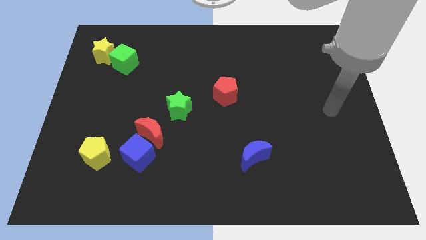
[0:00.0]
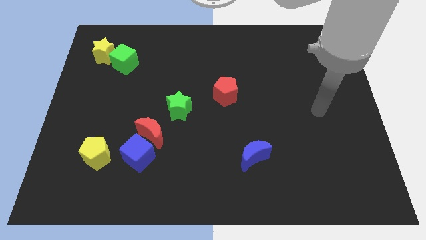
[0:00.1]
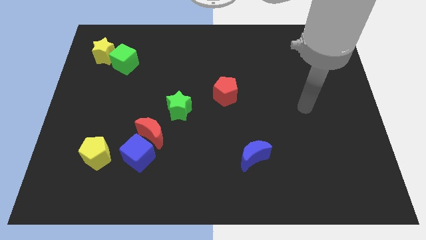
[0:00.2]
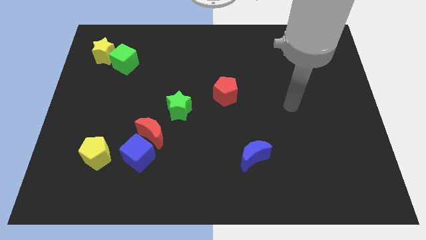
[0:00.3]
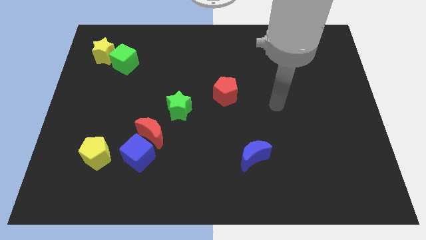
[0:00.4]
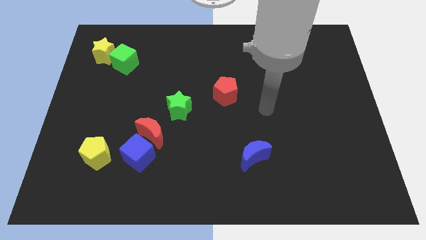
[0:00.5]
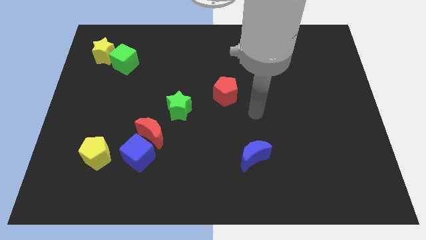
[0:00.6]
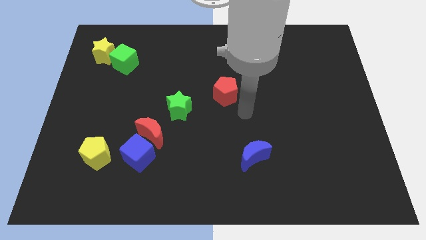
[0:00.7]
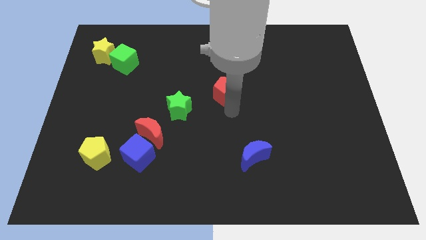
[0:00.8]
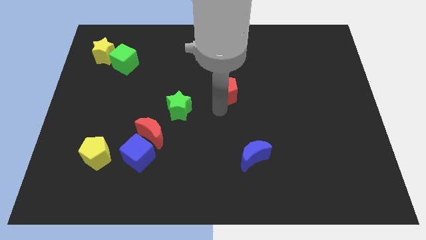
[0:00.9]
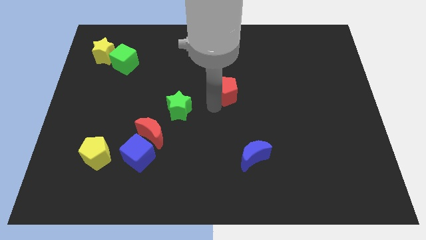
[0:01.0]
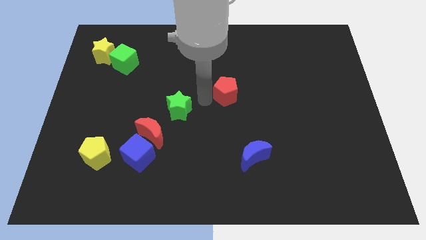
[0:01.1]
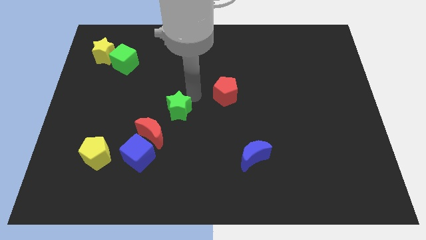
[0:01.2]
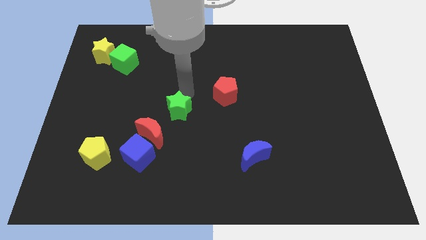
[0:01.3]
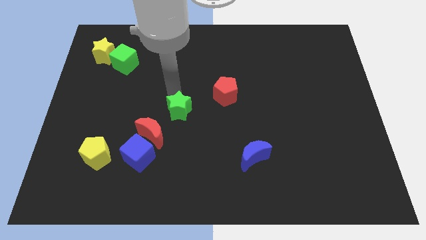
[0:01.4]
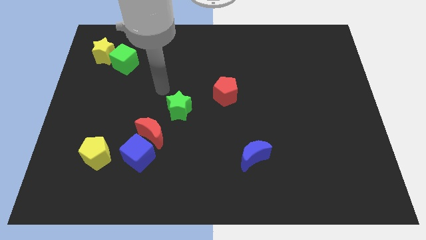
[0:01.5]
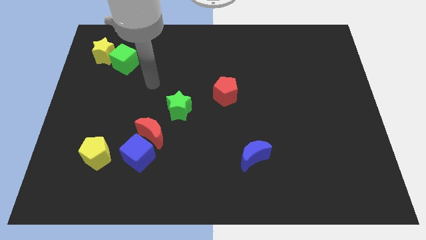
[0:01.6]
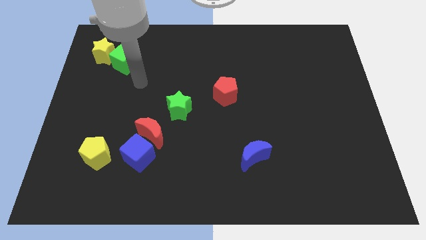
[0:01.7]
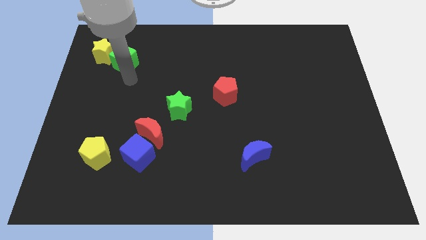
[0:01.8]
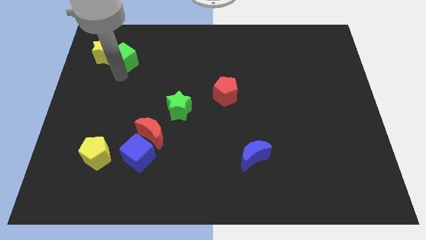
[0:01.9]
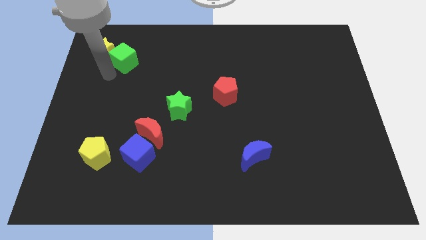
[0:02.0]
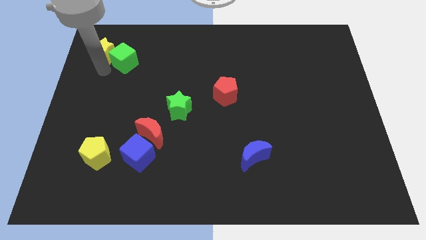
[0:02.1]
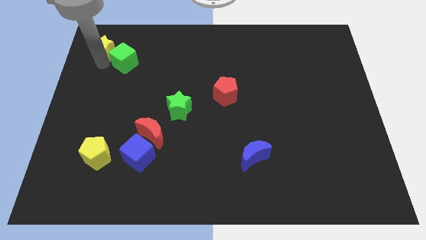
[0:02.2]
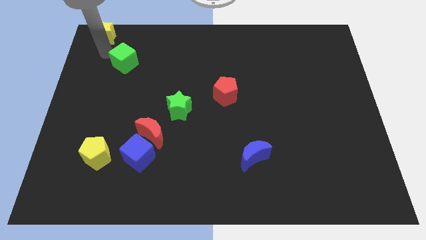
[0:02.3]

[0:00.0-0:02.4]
move the green cube away from the yellow star

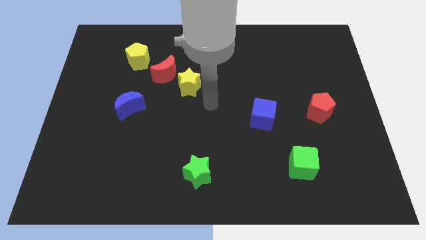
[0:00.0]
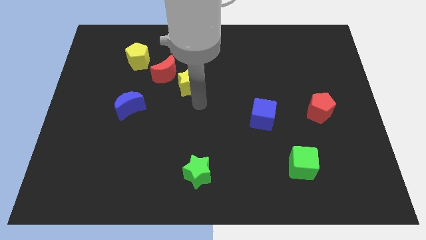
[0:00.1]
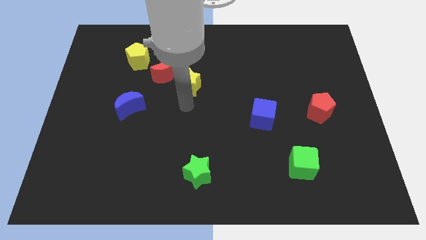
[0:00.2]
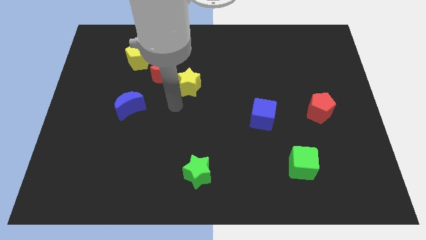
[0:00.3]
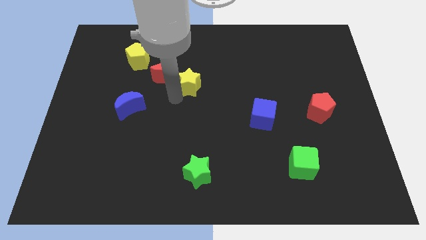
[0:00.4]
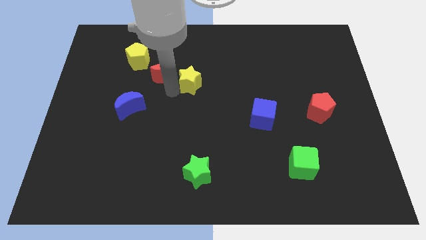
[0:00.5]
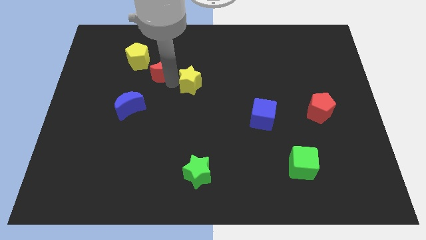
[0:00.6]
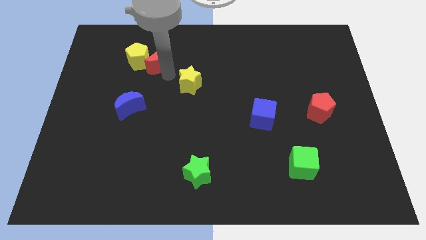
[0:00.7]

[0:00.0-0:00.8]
pull the yellow star apart from the red moon

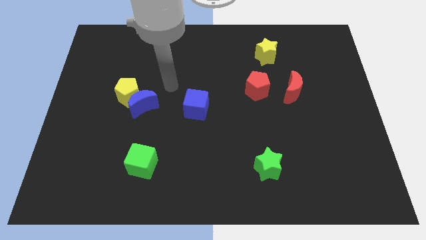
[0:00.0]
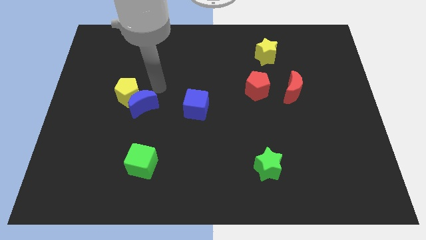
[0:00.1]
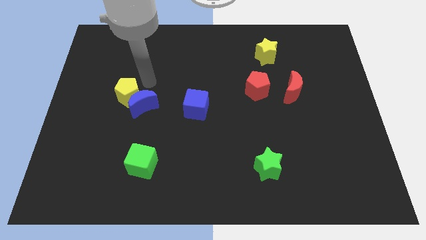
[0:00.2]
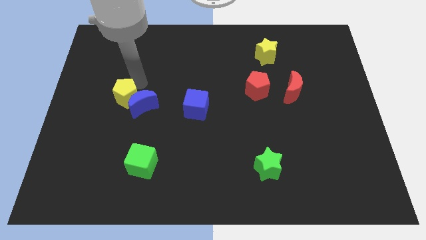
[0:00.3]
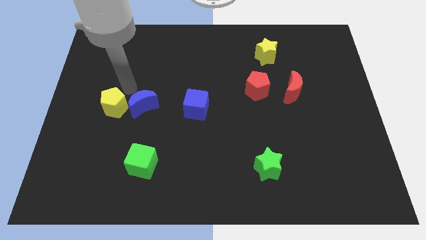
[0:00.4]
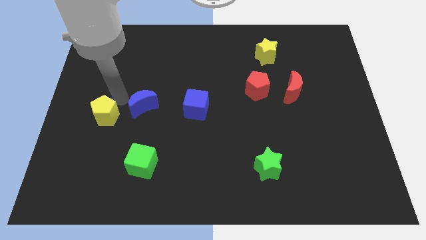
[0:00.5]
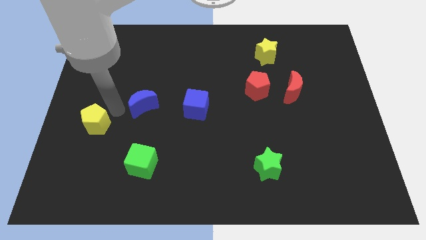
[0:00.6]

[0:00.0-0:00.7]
move the blue moon away from the yellow pentagon

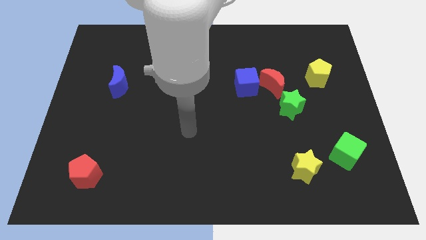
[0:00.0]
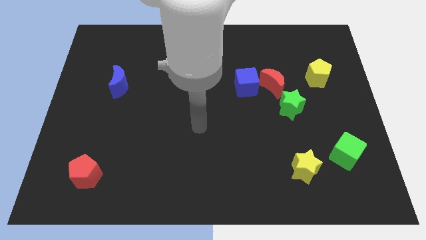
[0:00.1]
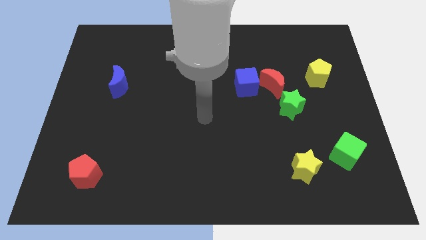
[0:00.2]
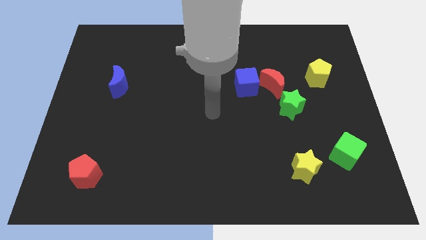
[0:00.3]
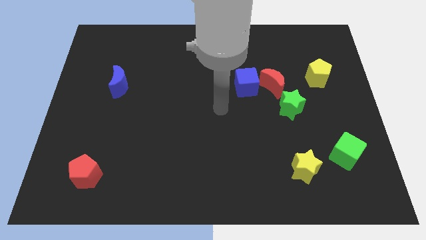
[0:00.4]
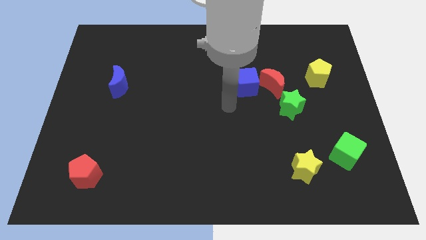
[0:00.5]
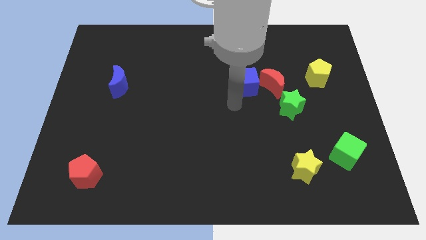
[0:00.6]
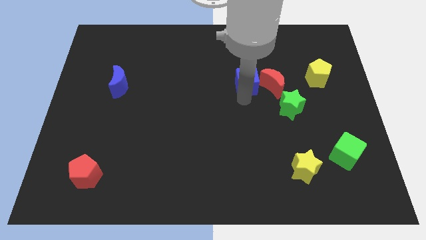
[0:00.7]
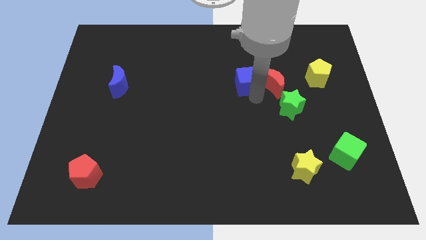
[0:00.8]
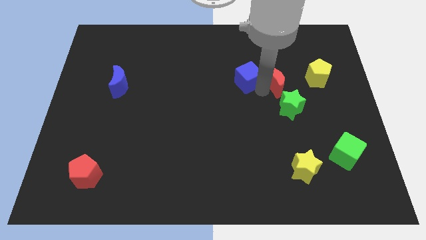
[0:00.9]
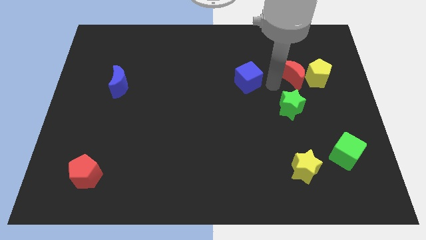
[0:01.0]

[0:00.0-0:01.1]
pull the blue cube apart from the red moon

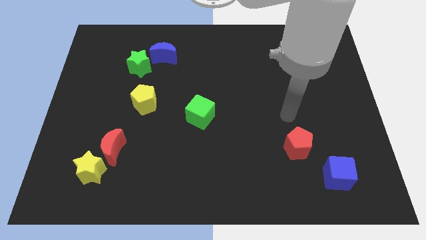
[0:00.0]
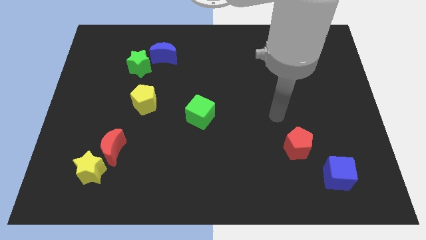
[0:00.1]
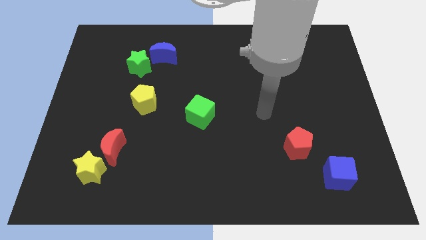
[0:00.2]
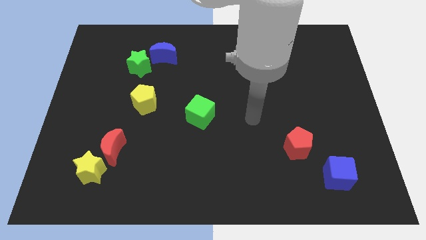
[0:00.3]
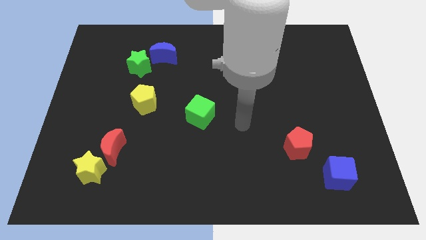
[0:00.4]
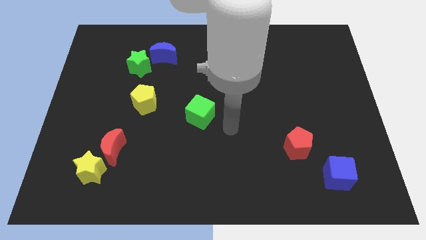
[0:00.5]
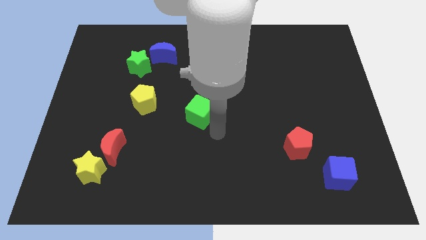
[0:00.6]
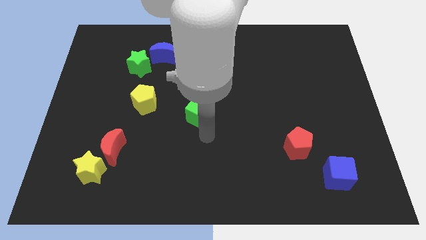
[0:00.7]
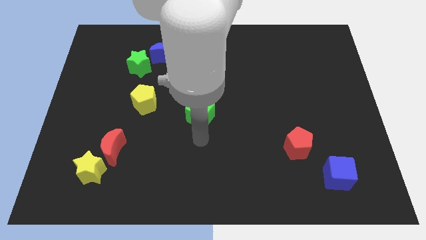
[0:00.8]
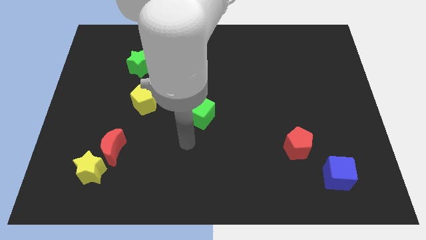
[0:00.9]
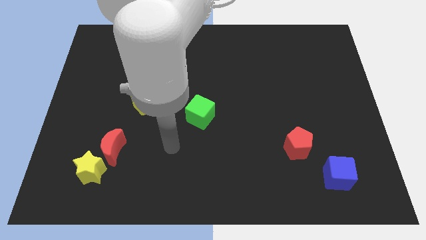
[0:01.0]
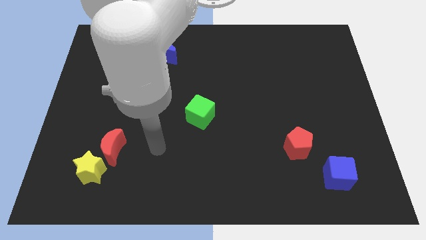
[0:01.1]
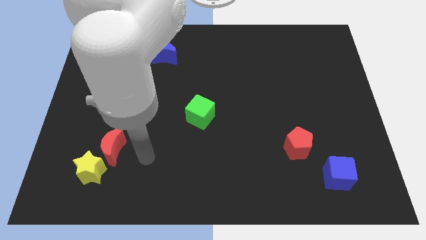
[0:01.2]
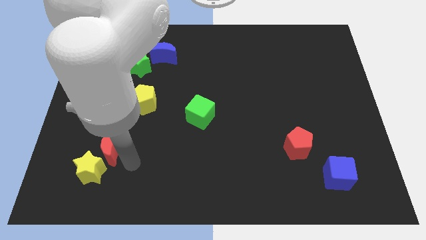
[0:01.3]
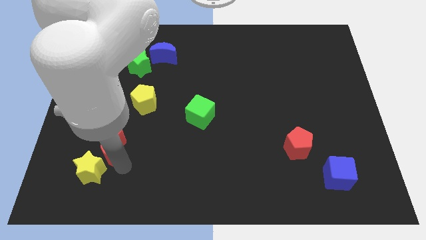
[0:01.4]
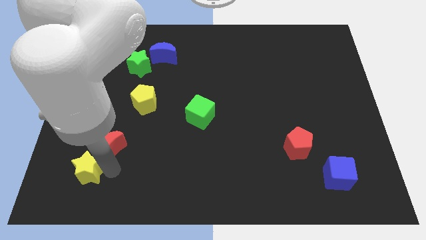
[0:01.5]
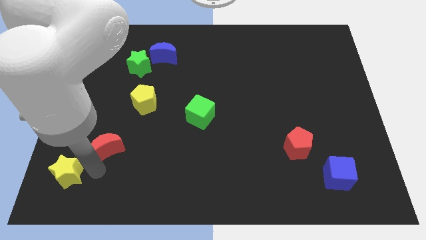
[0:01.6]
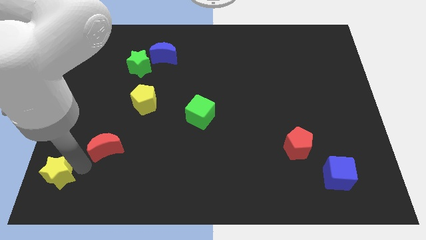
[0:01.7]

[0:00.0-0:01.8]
pull the red moon apart from the yellow star

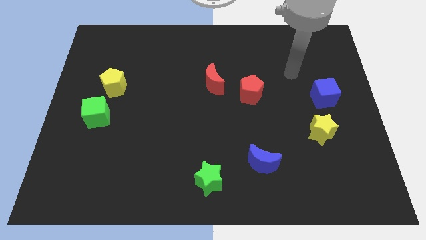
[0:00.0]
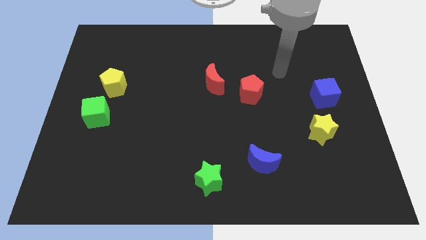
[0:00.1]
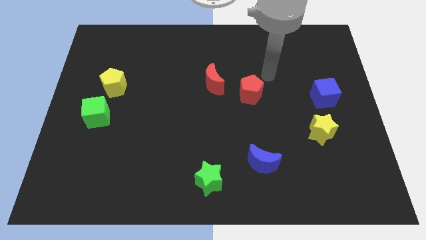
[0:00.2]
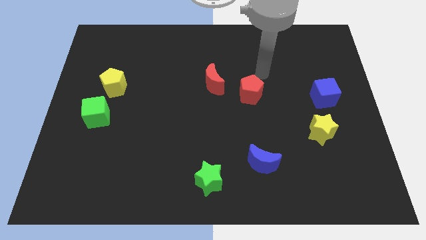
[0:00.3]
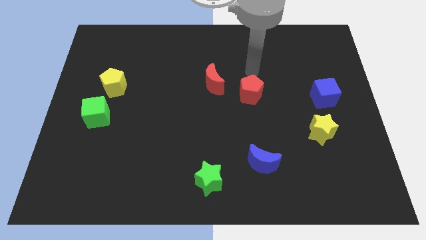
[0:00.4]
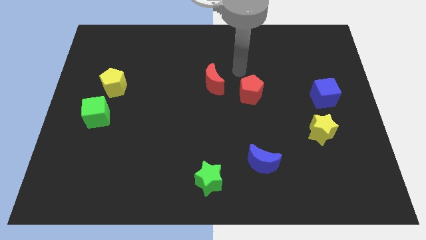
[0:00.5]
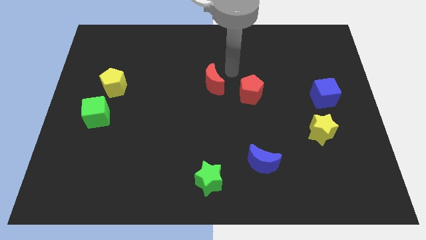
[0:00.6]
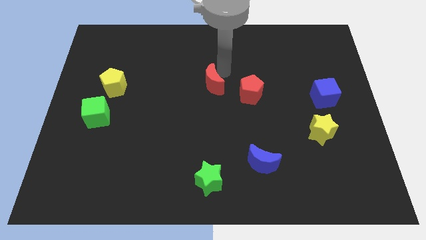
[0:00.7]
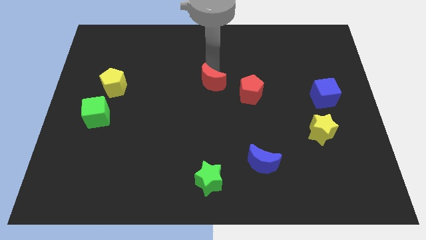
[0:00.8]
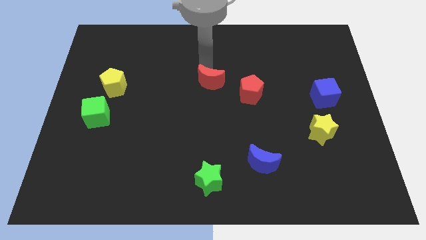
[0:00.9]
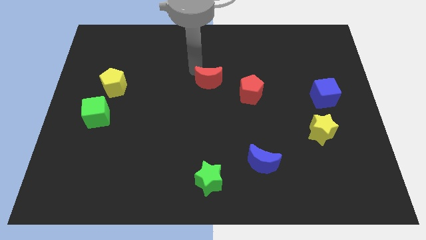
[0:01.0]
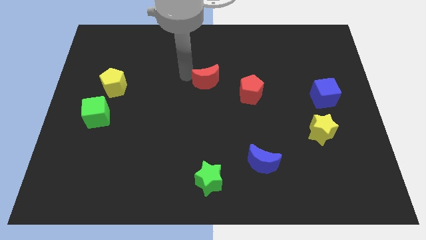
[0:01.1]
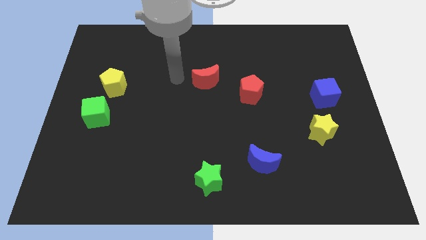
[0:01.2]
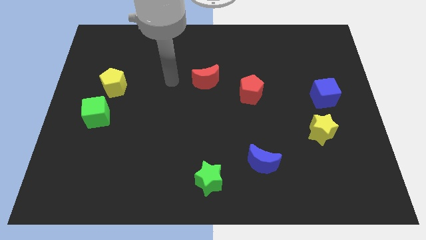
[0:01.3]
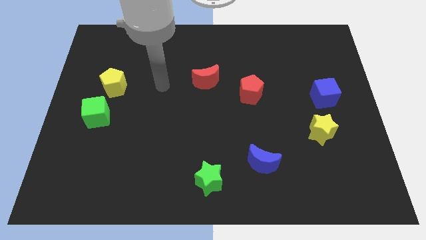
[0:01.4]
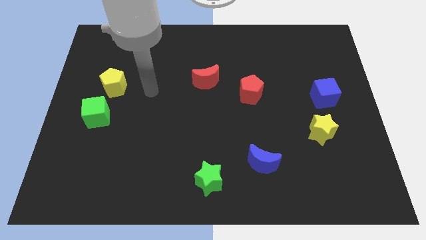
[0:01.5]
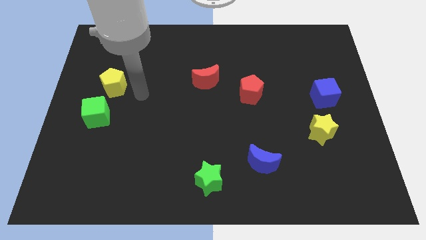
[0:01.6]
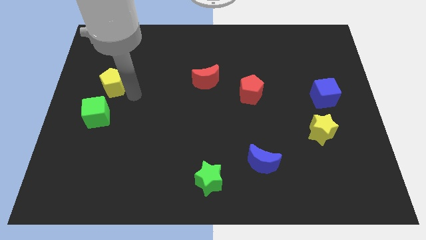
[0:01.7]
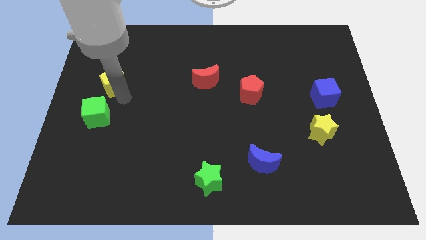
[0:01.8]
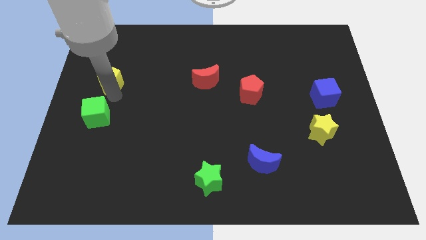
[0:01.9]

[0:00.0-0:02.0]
separate the green cube from the yellow pentagon

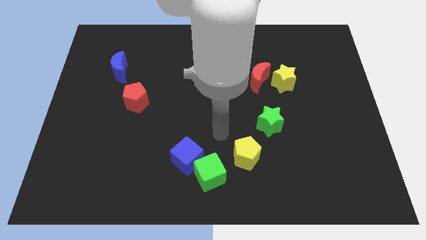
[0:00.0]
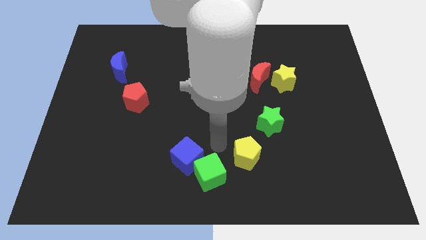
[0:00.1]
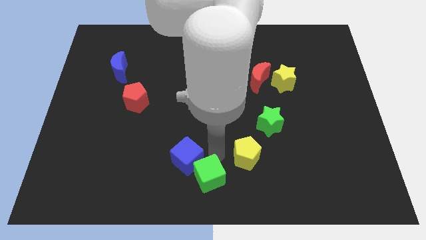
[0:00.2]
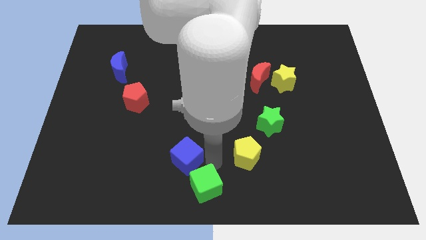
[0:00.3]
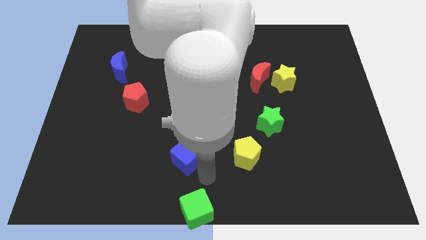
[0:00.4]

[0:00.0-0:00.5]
separate the blue cube from the green cube
